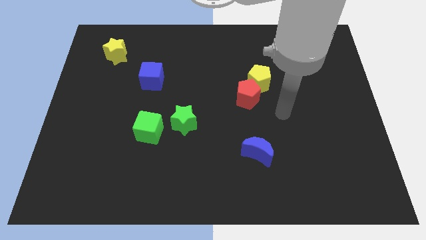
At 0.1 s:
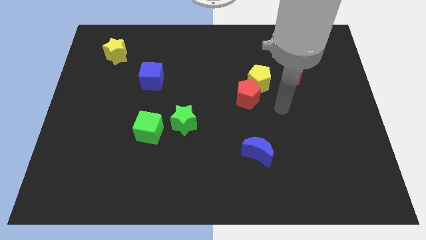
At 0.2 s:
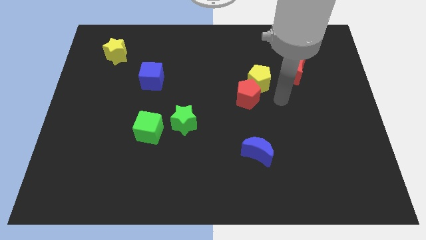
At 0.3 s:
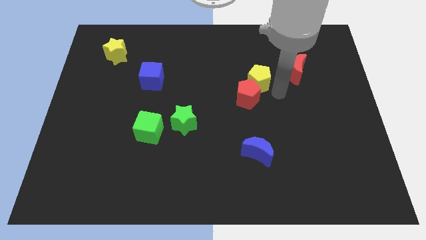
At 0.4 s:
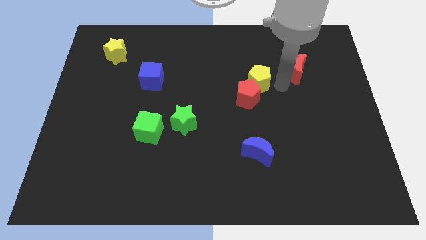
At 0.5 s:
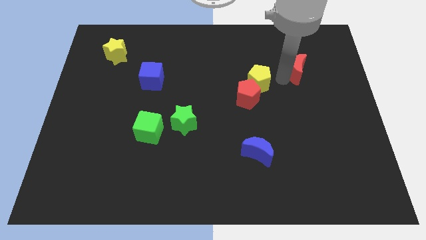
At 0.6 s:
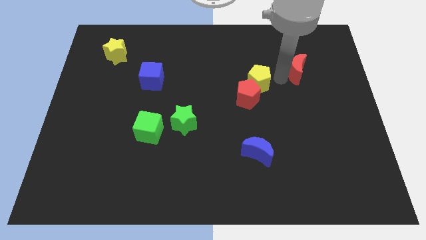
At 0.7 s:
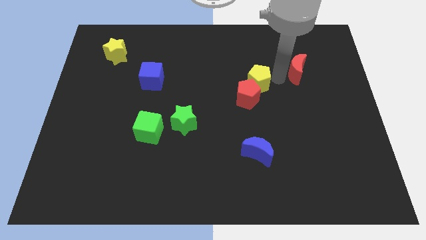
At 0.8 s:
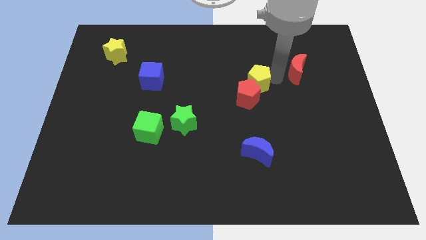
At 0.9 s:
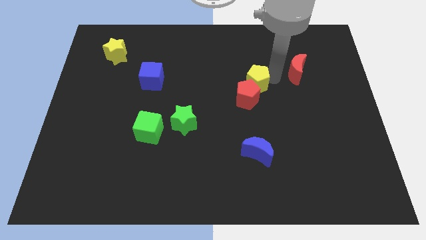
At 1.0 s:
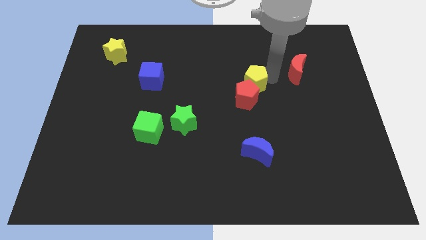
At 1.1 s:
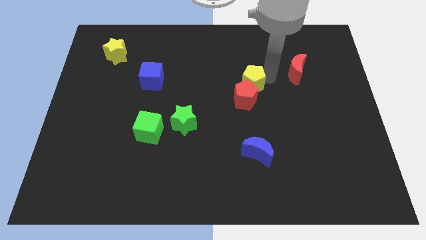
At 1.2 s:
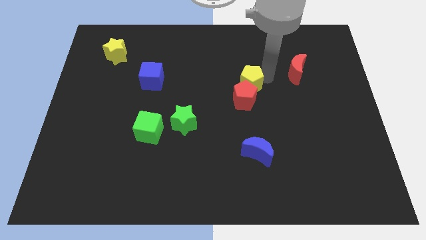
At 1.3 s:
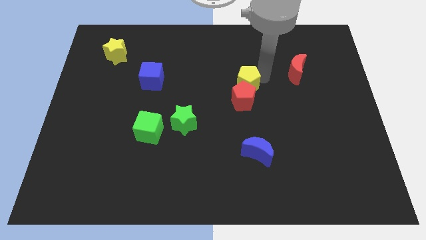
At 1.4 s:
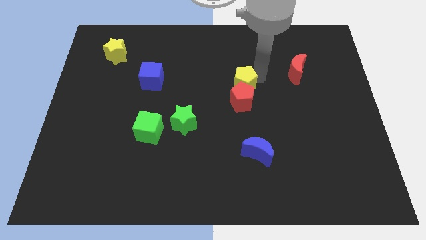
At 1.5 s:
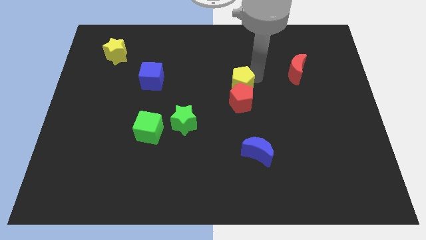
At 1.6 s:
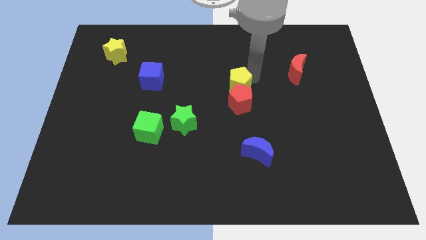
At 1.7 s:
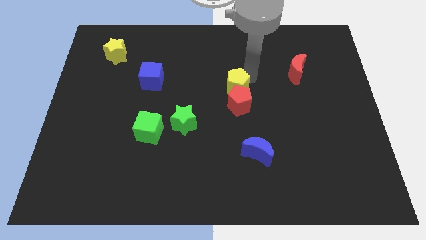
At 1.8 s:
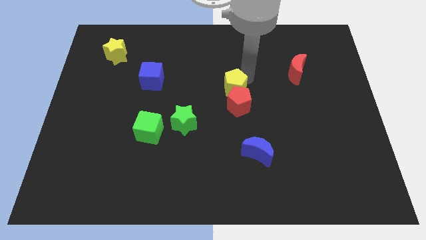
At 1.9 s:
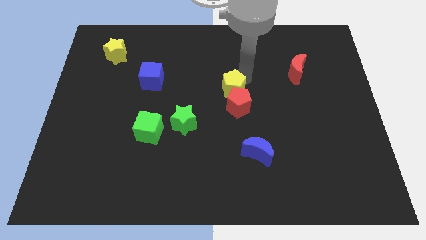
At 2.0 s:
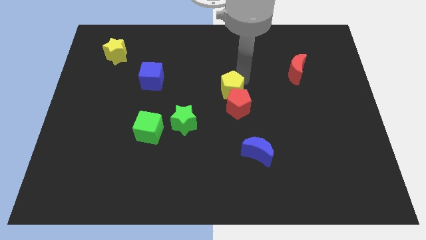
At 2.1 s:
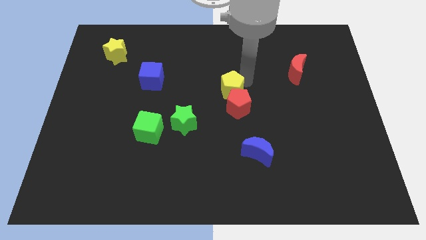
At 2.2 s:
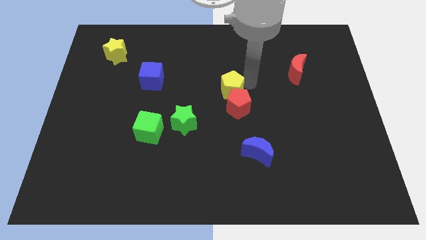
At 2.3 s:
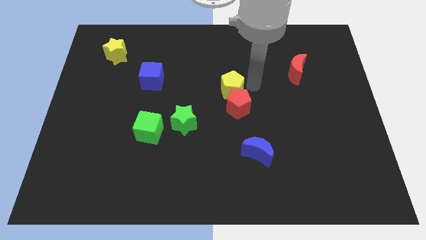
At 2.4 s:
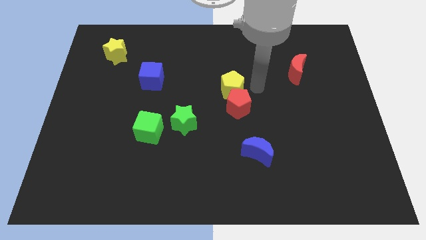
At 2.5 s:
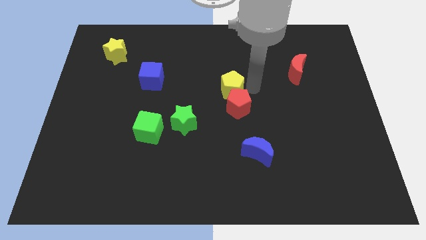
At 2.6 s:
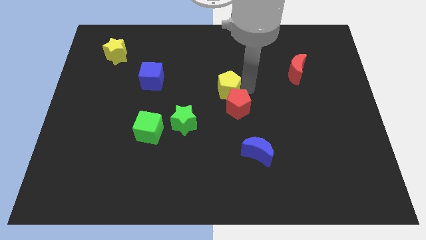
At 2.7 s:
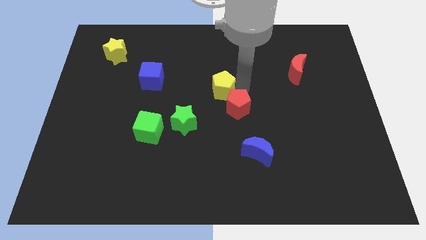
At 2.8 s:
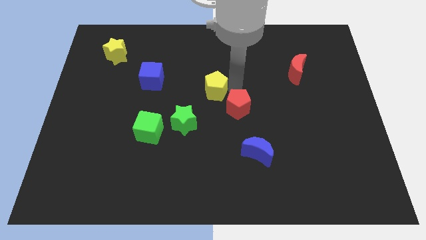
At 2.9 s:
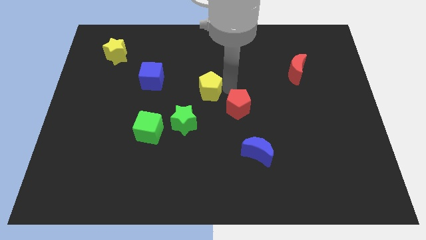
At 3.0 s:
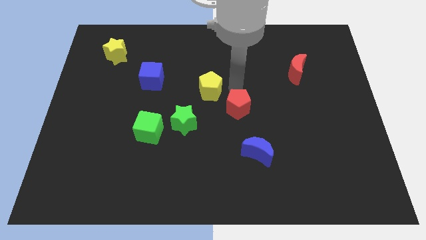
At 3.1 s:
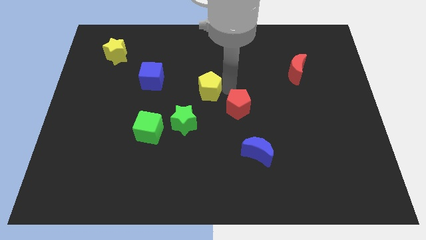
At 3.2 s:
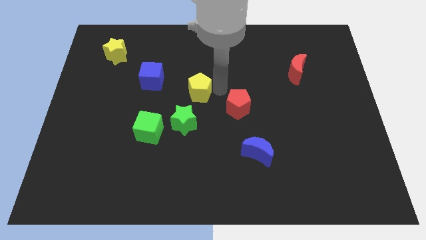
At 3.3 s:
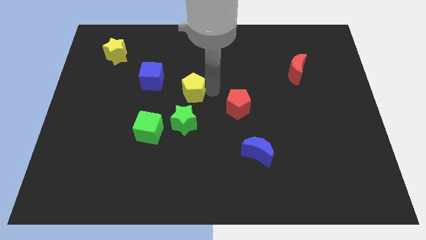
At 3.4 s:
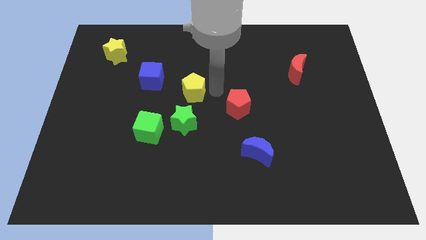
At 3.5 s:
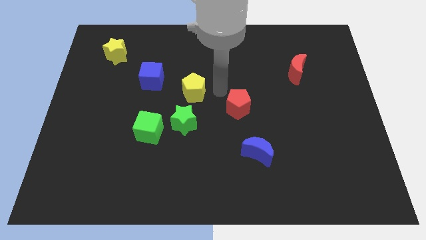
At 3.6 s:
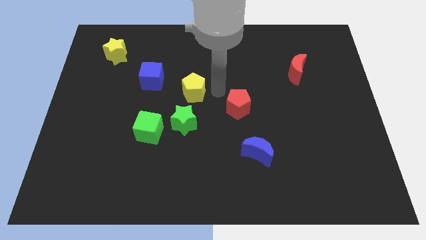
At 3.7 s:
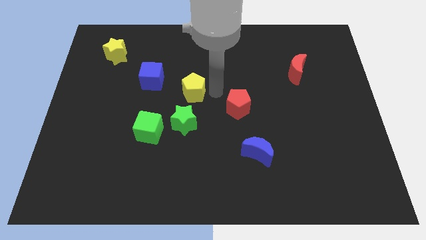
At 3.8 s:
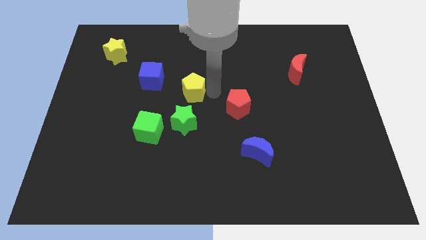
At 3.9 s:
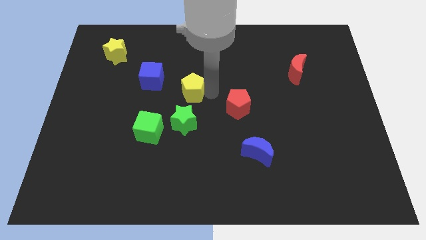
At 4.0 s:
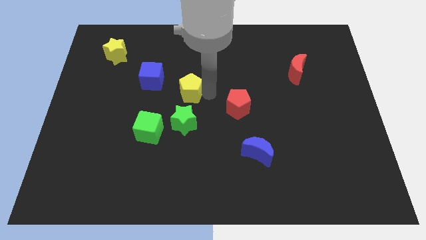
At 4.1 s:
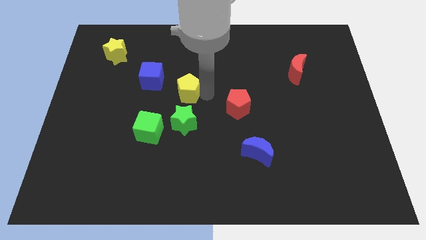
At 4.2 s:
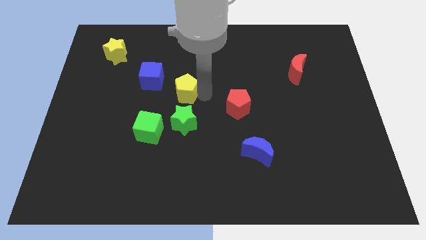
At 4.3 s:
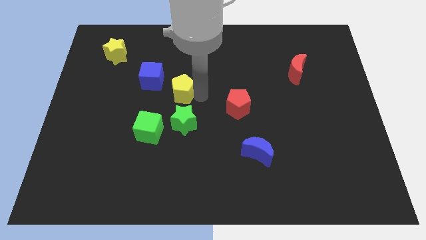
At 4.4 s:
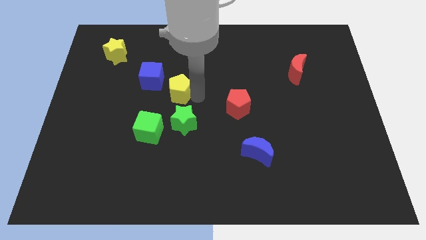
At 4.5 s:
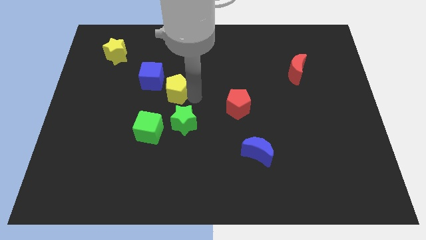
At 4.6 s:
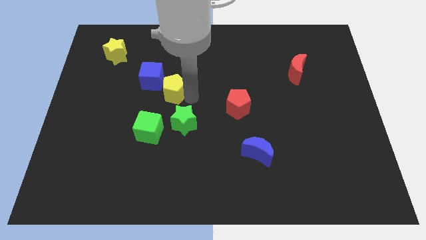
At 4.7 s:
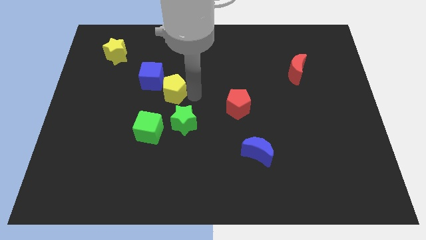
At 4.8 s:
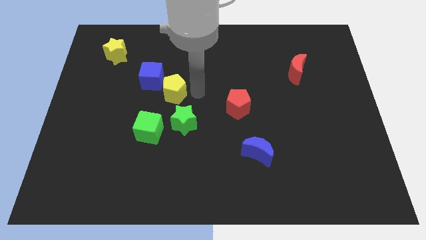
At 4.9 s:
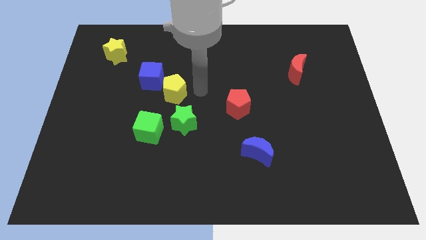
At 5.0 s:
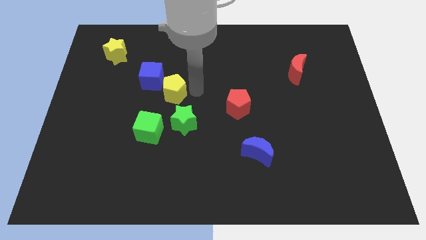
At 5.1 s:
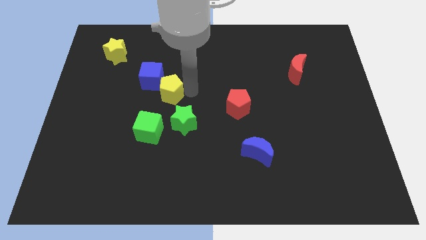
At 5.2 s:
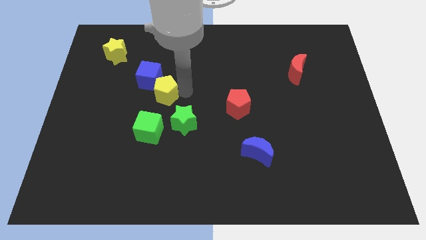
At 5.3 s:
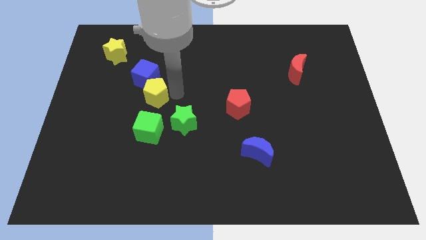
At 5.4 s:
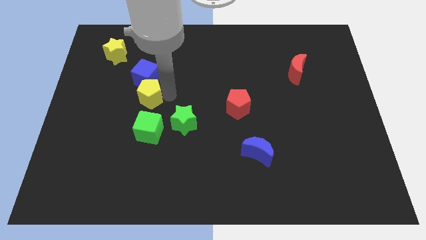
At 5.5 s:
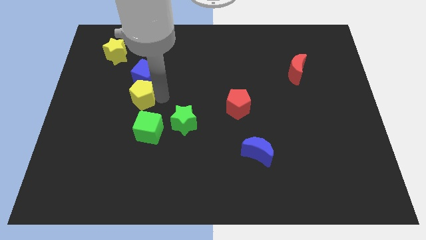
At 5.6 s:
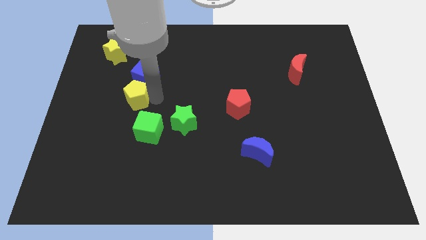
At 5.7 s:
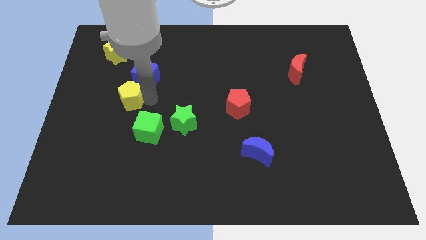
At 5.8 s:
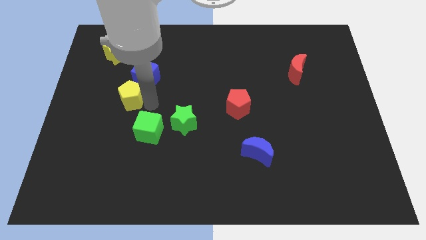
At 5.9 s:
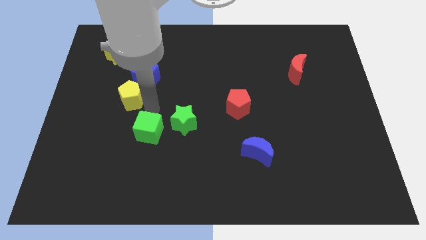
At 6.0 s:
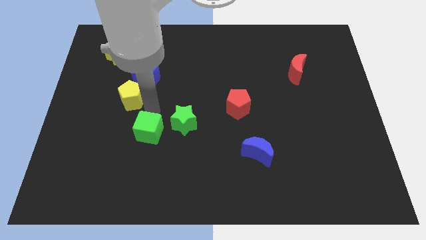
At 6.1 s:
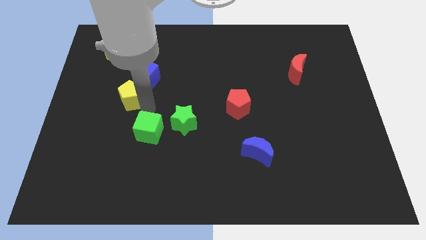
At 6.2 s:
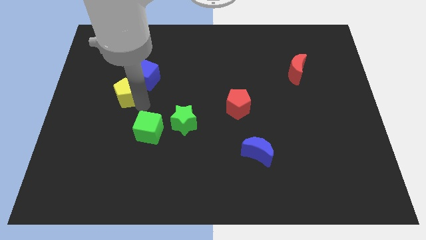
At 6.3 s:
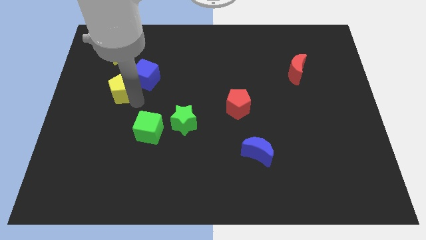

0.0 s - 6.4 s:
slide the yellow pentagon to the bottom side of the yellow star
